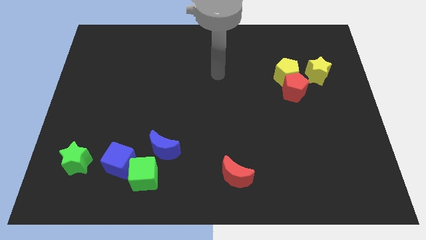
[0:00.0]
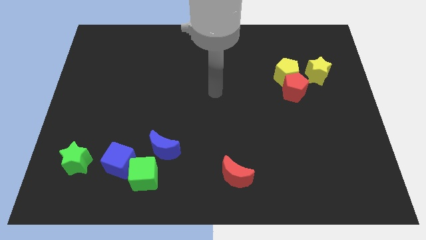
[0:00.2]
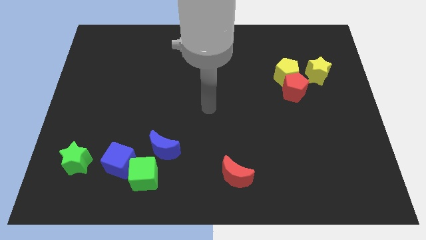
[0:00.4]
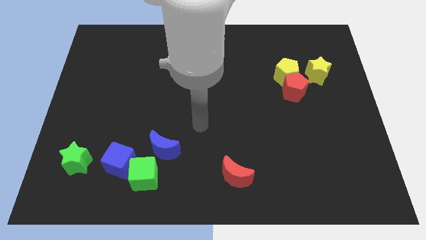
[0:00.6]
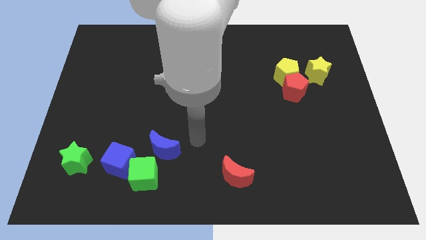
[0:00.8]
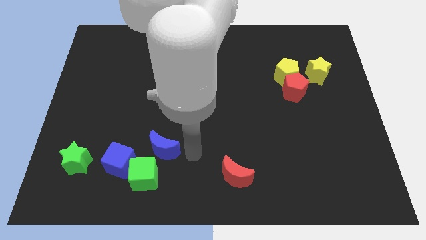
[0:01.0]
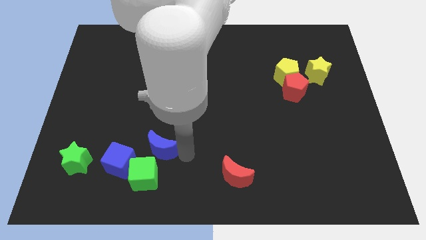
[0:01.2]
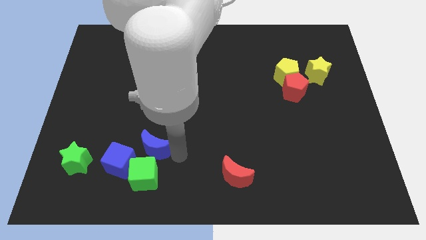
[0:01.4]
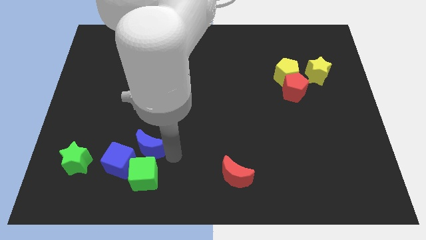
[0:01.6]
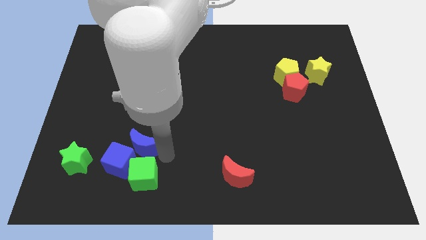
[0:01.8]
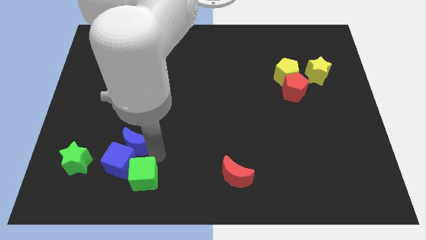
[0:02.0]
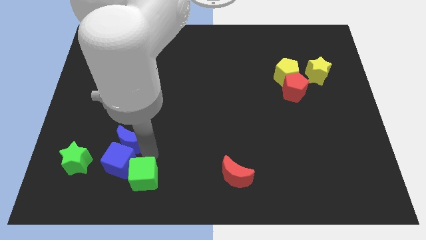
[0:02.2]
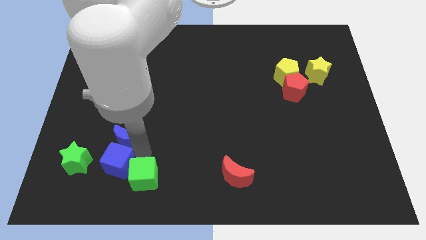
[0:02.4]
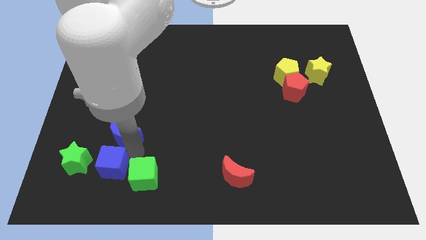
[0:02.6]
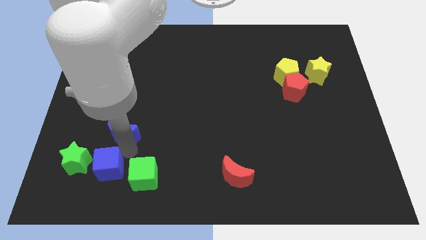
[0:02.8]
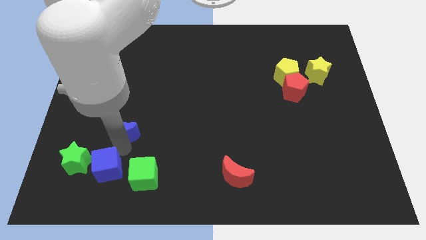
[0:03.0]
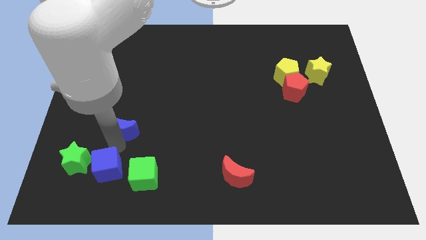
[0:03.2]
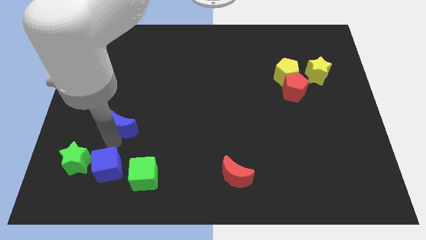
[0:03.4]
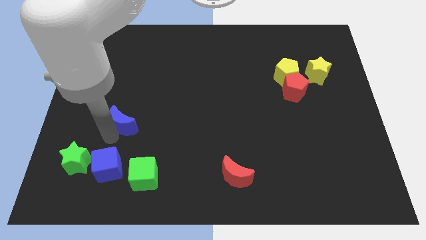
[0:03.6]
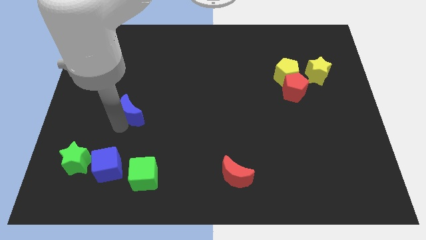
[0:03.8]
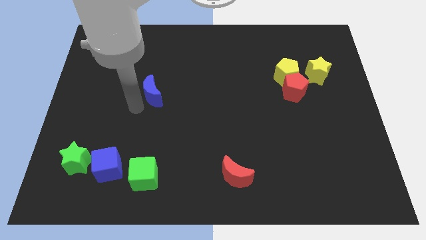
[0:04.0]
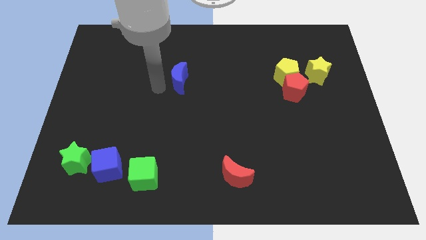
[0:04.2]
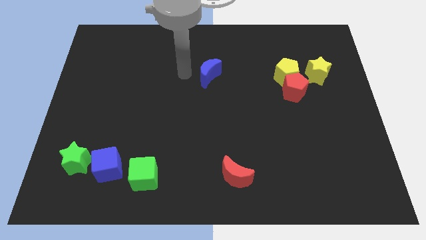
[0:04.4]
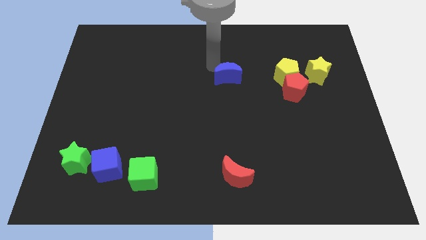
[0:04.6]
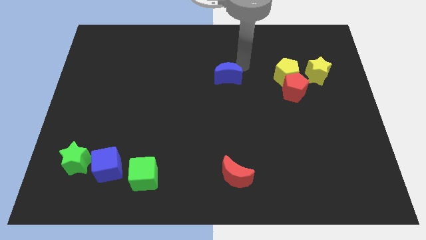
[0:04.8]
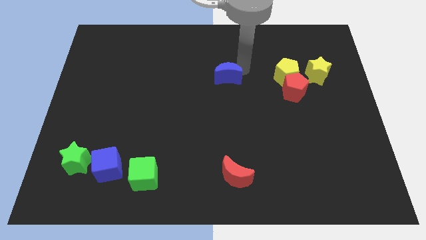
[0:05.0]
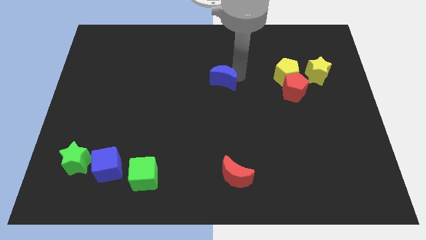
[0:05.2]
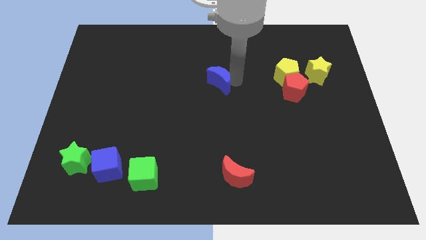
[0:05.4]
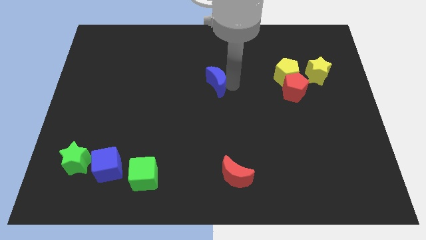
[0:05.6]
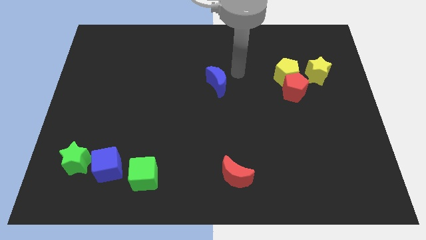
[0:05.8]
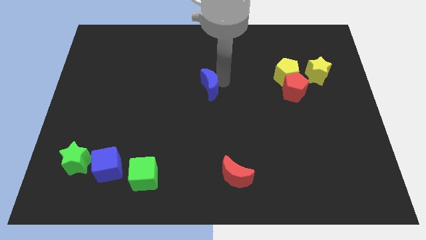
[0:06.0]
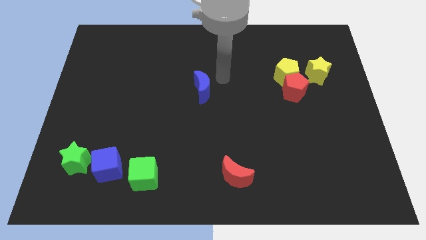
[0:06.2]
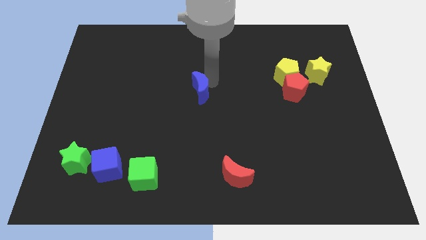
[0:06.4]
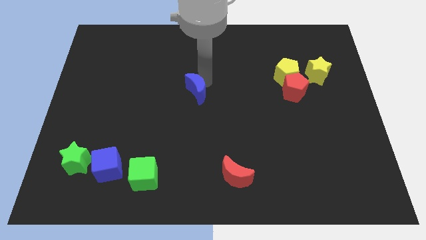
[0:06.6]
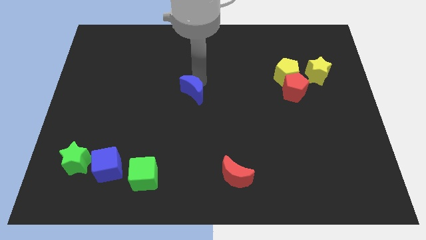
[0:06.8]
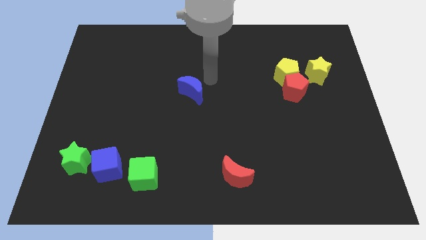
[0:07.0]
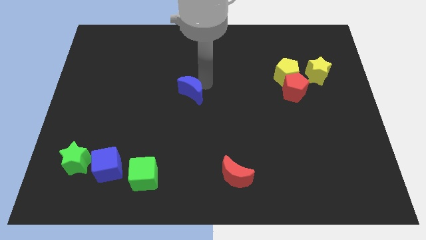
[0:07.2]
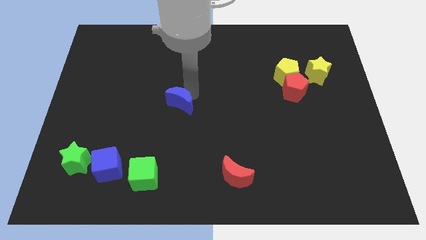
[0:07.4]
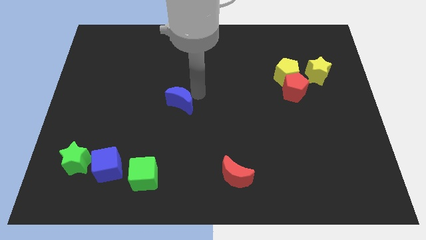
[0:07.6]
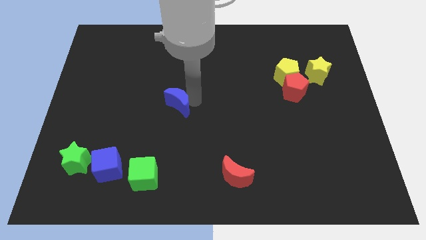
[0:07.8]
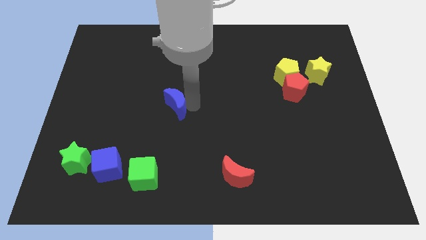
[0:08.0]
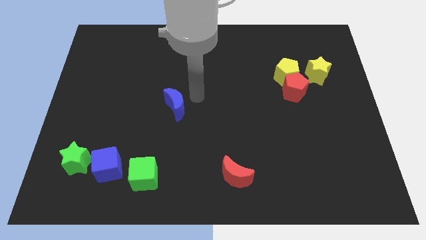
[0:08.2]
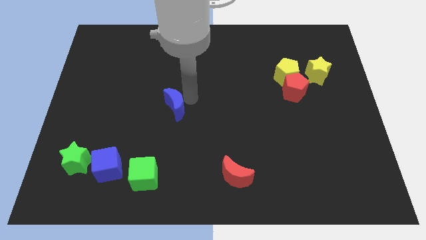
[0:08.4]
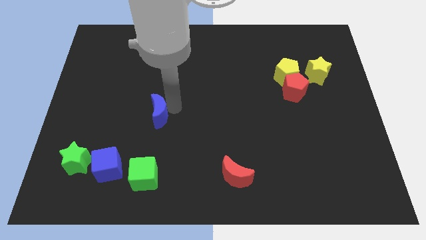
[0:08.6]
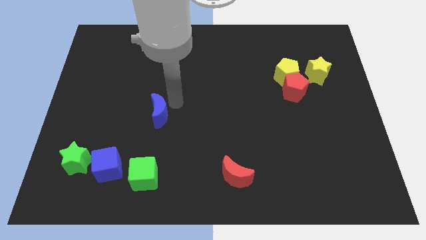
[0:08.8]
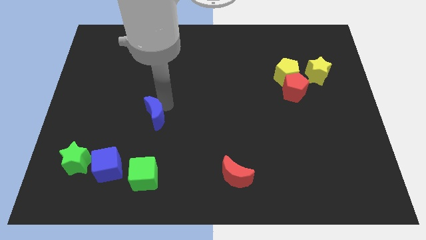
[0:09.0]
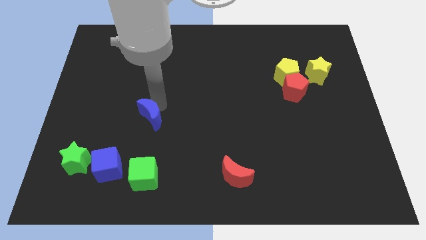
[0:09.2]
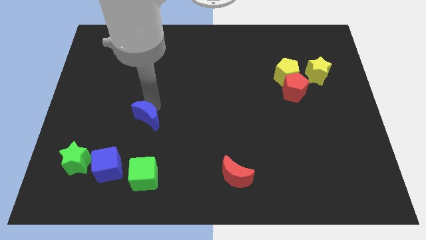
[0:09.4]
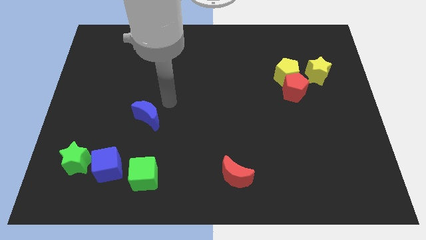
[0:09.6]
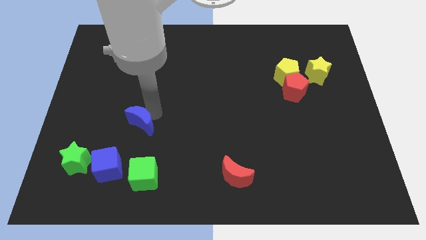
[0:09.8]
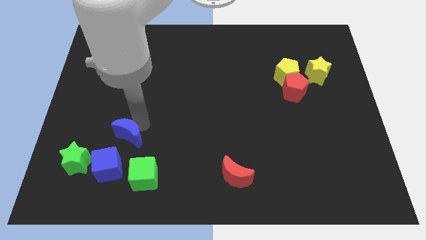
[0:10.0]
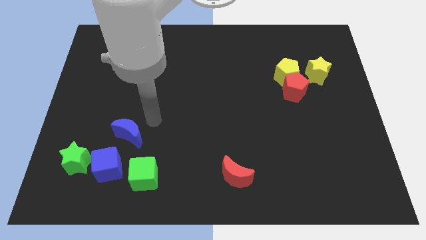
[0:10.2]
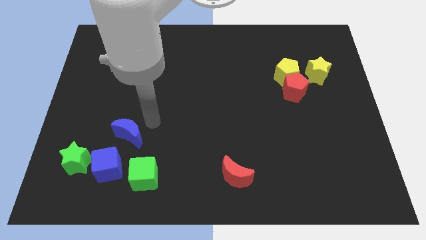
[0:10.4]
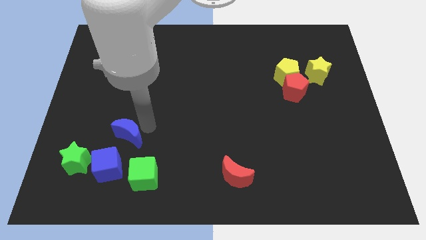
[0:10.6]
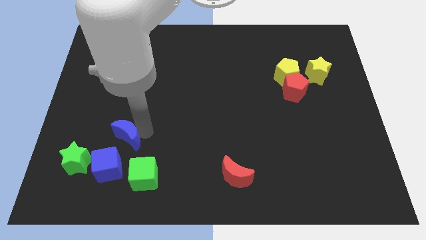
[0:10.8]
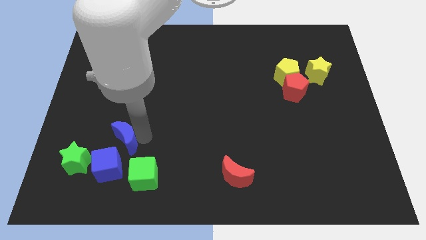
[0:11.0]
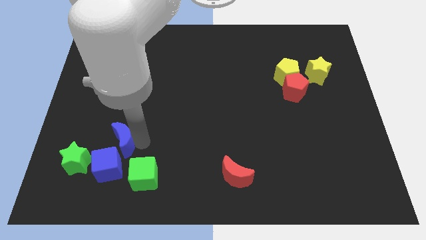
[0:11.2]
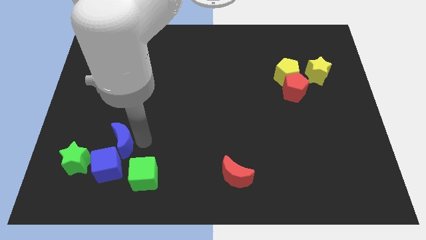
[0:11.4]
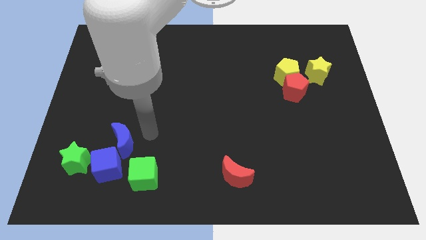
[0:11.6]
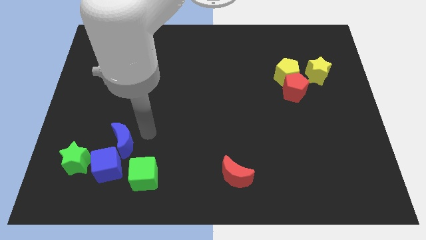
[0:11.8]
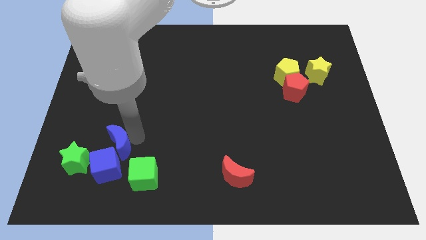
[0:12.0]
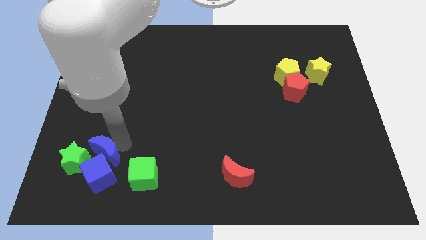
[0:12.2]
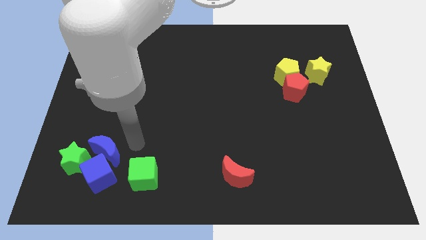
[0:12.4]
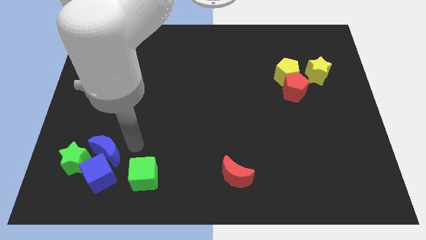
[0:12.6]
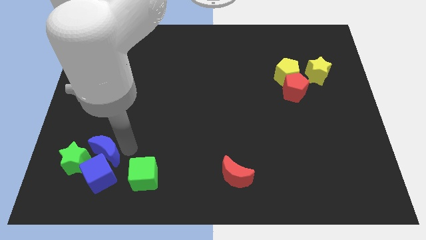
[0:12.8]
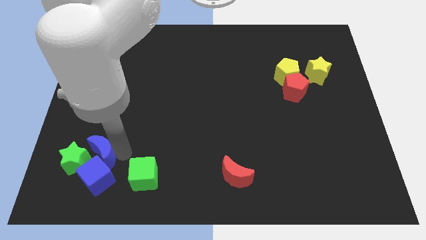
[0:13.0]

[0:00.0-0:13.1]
move the blue moon close to the green star

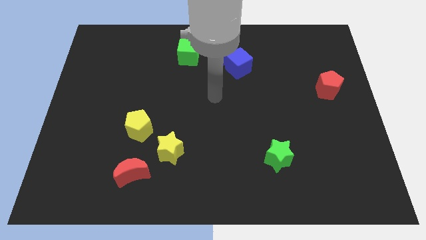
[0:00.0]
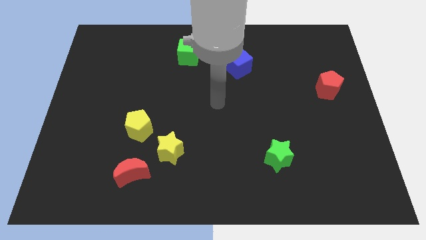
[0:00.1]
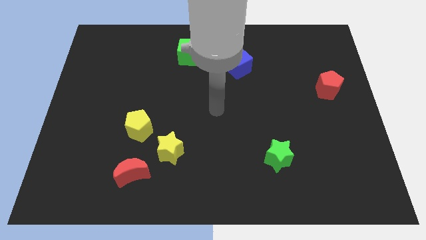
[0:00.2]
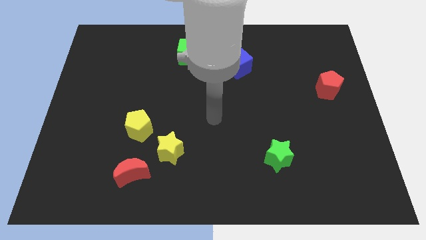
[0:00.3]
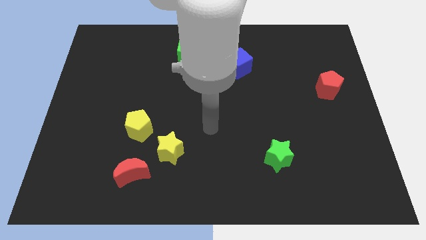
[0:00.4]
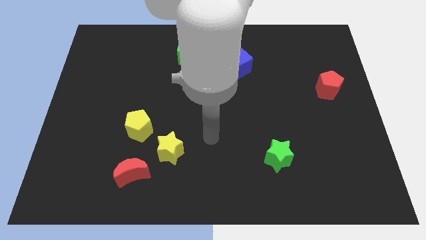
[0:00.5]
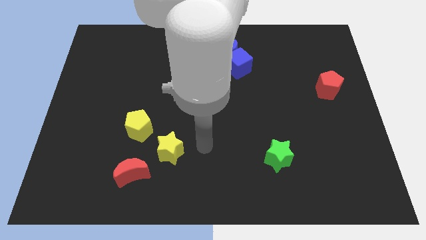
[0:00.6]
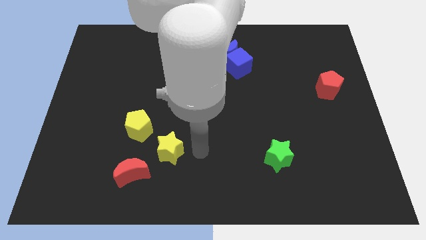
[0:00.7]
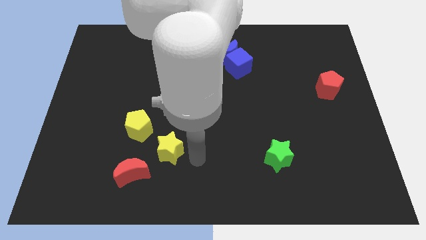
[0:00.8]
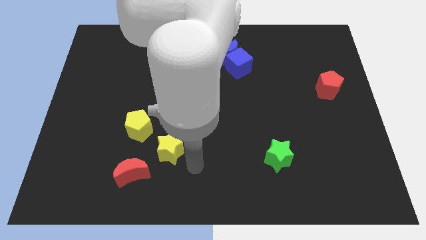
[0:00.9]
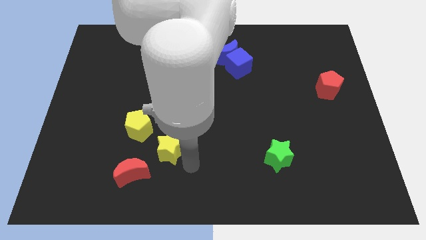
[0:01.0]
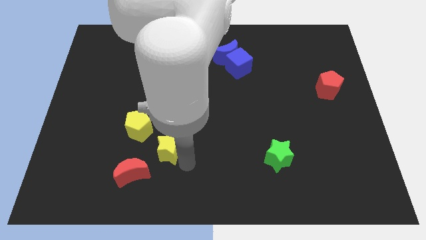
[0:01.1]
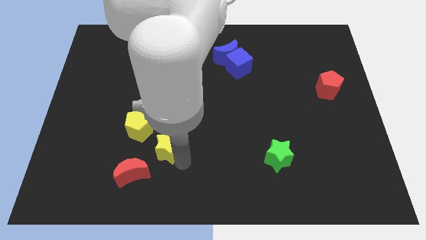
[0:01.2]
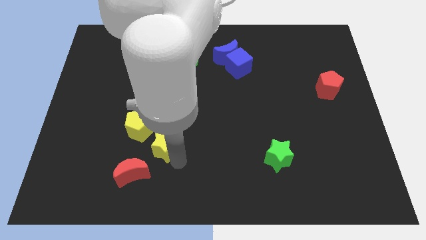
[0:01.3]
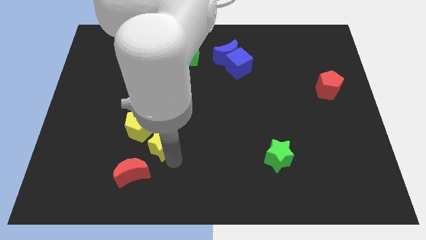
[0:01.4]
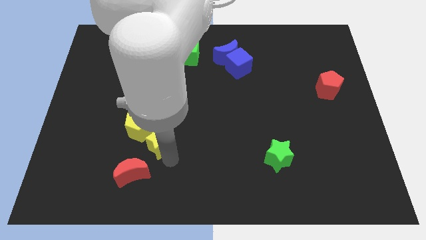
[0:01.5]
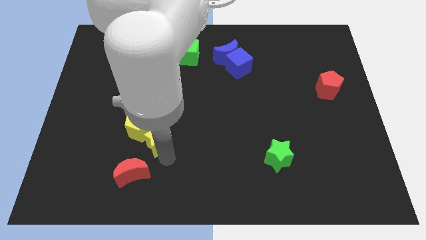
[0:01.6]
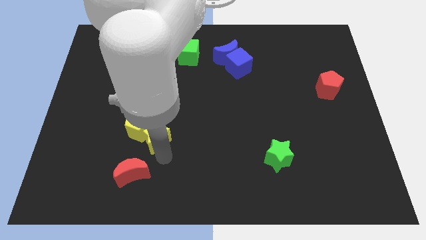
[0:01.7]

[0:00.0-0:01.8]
slide the yellow star next to the yellow pentagon
